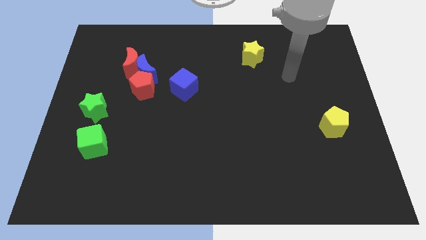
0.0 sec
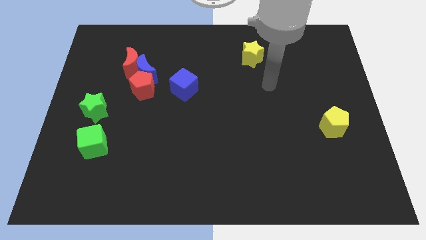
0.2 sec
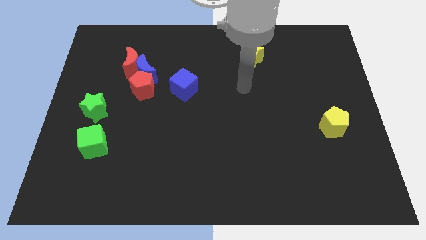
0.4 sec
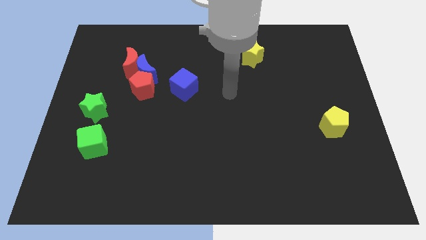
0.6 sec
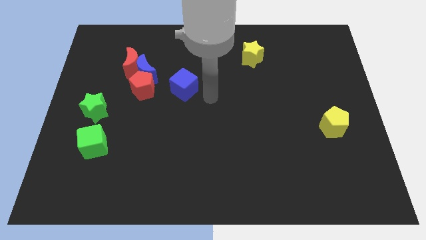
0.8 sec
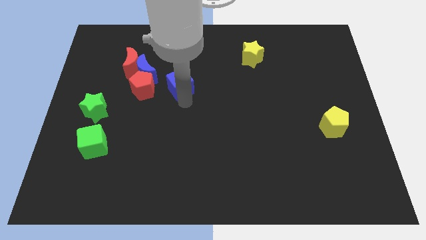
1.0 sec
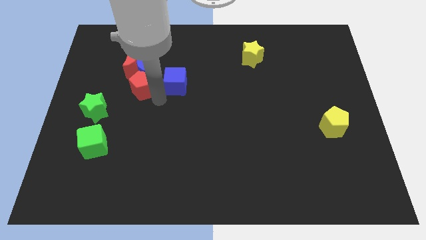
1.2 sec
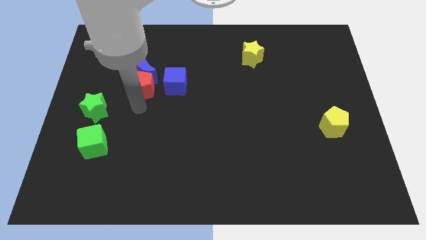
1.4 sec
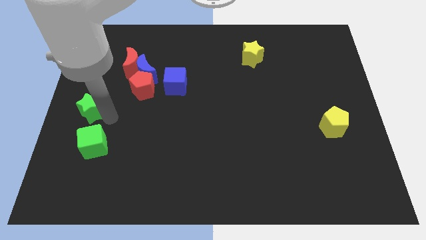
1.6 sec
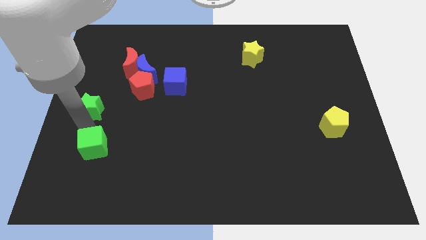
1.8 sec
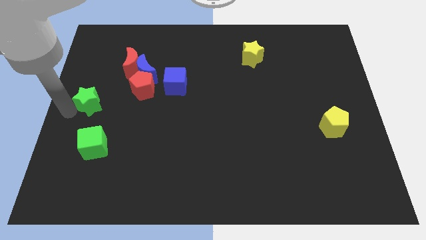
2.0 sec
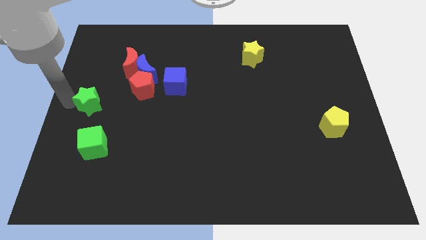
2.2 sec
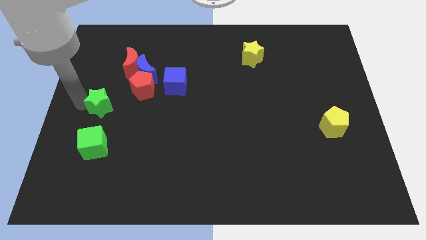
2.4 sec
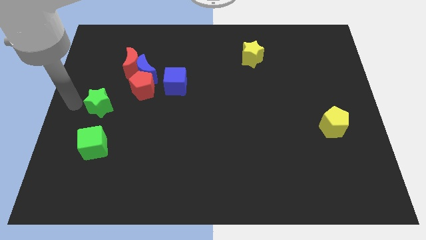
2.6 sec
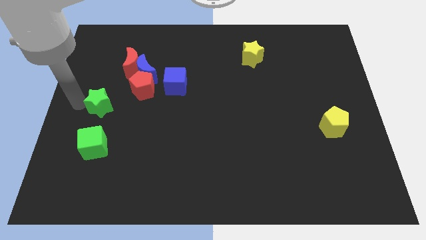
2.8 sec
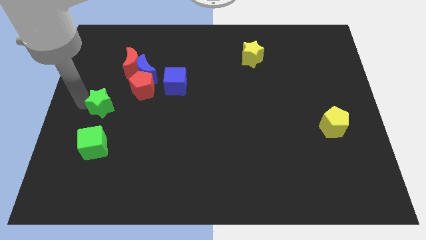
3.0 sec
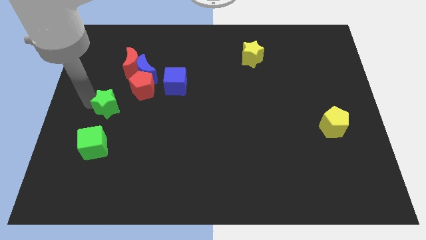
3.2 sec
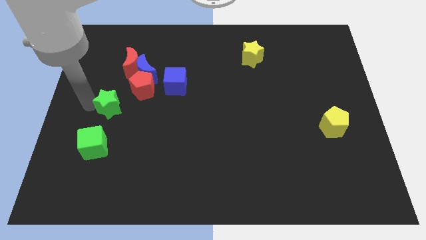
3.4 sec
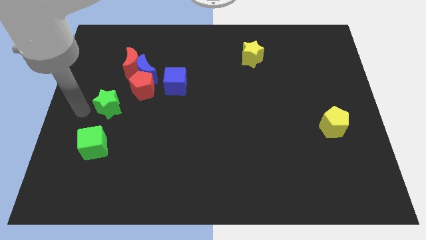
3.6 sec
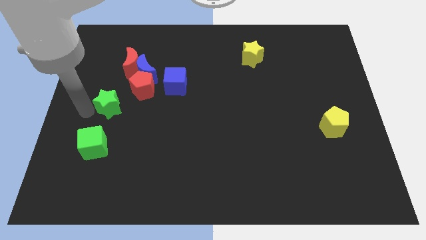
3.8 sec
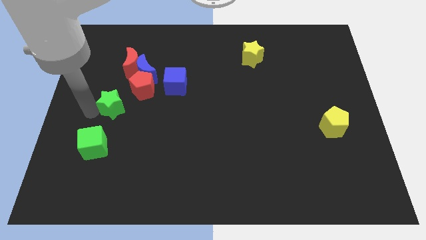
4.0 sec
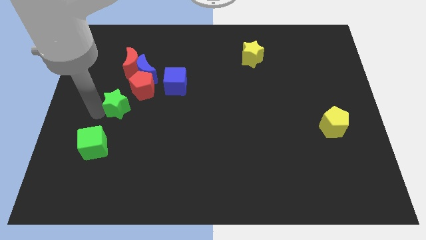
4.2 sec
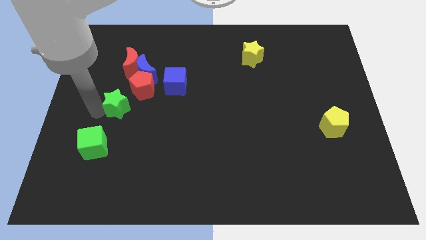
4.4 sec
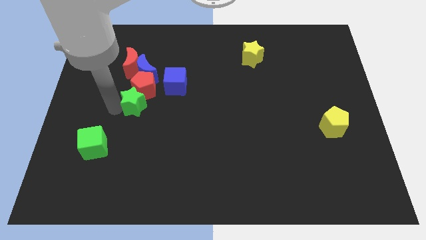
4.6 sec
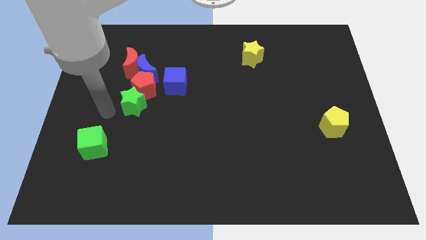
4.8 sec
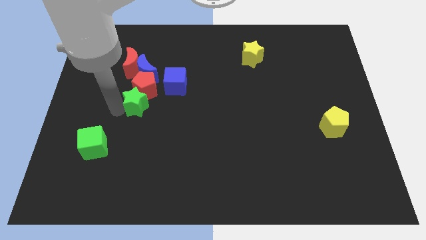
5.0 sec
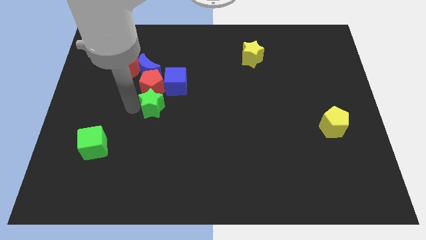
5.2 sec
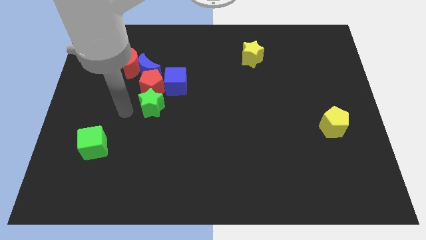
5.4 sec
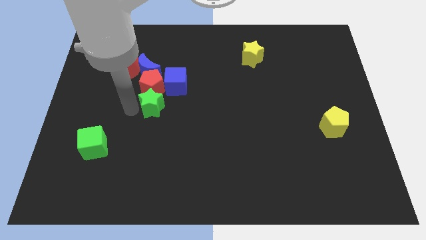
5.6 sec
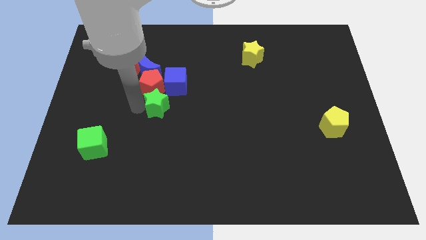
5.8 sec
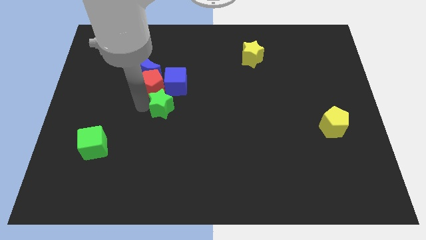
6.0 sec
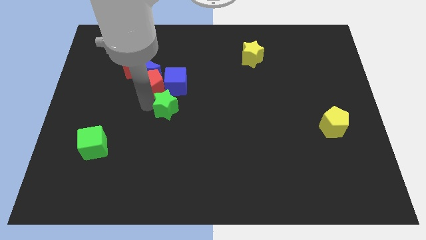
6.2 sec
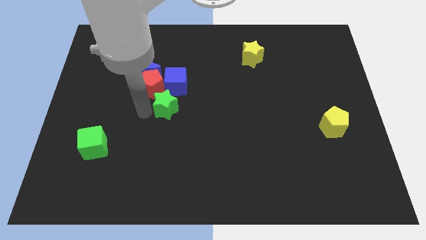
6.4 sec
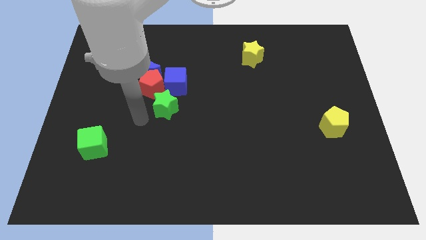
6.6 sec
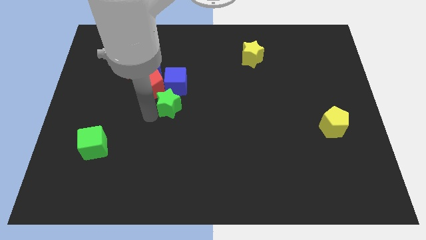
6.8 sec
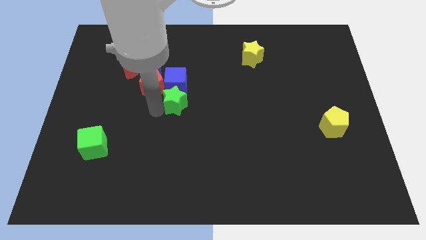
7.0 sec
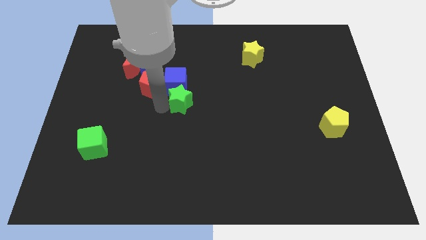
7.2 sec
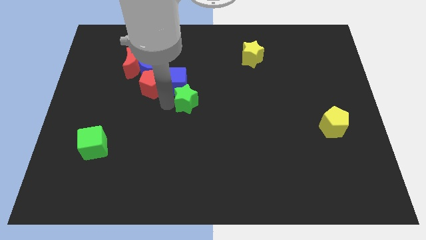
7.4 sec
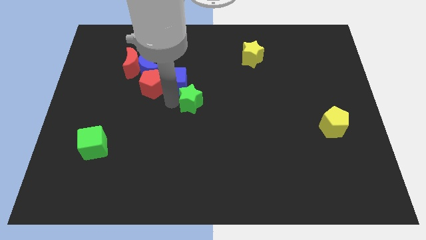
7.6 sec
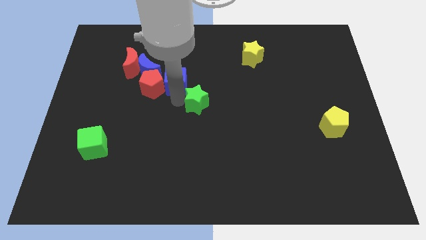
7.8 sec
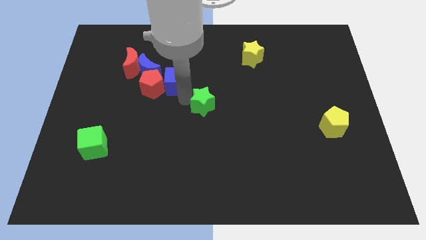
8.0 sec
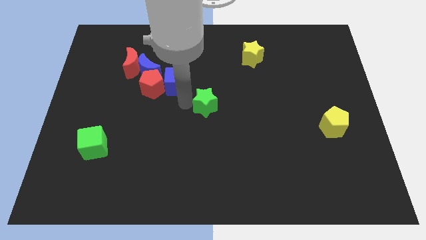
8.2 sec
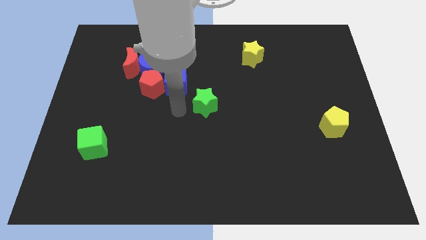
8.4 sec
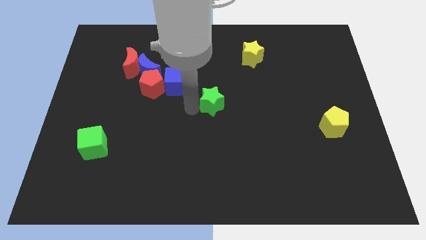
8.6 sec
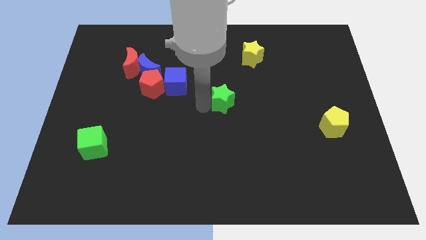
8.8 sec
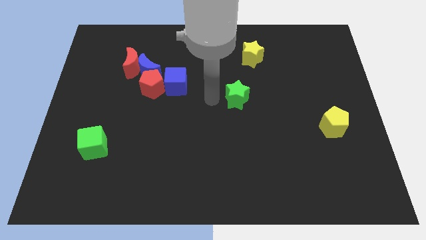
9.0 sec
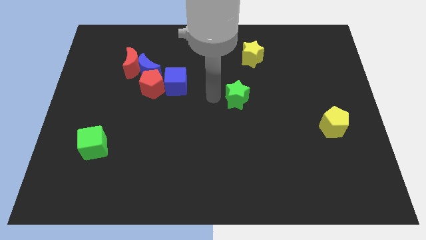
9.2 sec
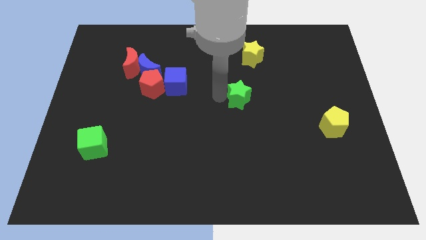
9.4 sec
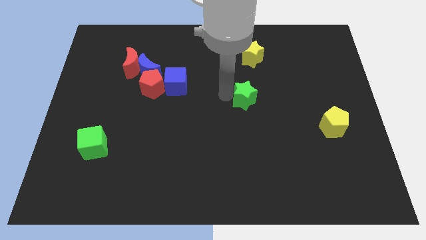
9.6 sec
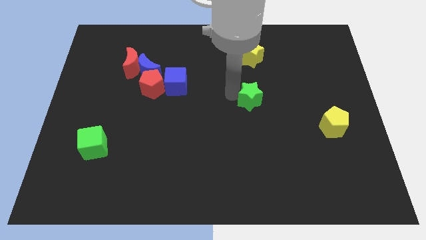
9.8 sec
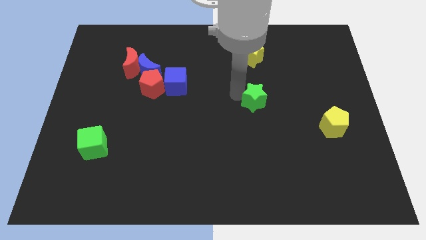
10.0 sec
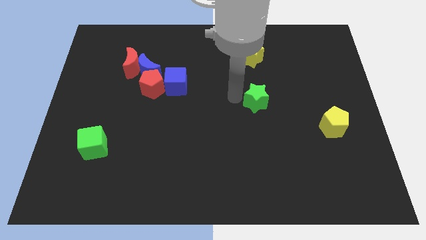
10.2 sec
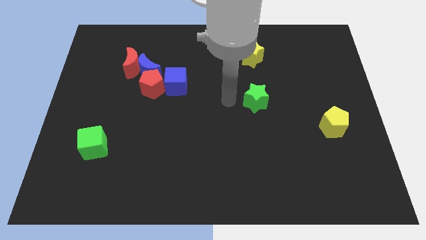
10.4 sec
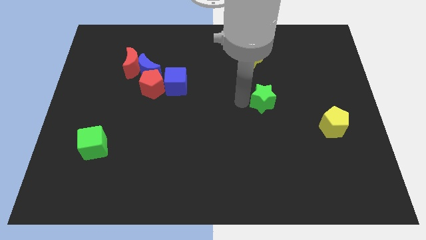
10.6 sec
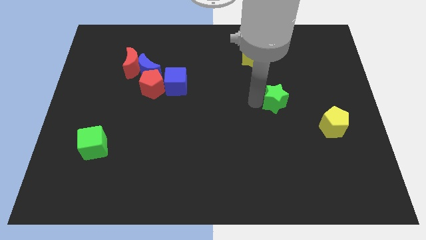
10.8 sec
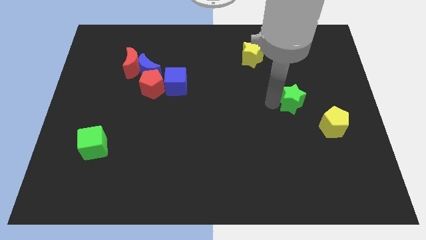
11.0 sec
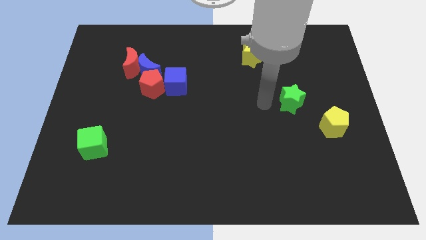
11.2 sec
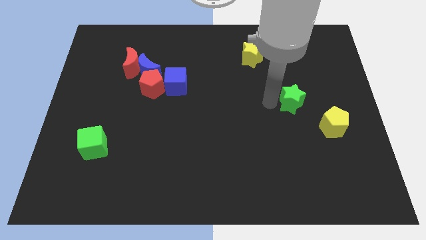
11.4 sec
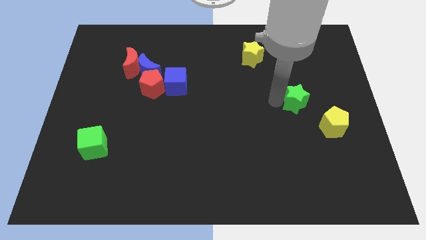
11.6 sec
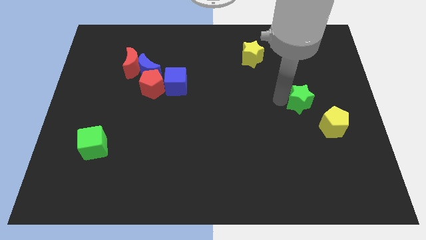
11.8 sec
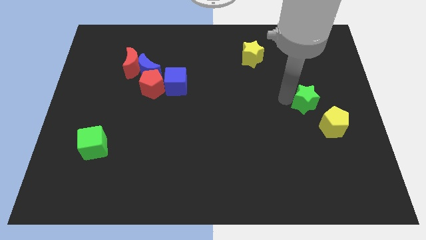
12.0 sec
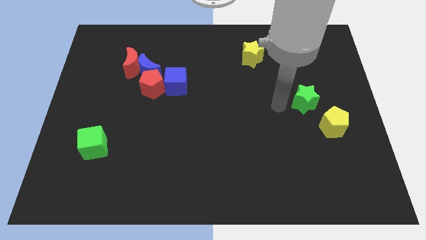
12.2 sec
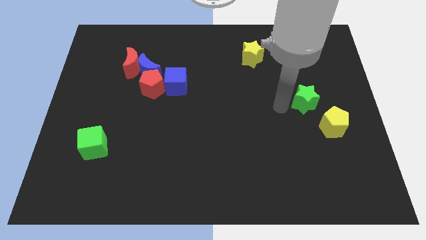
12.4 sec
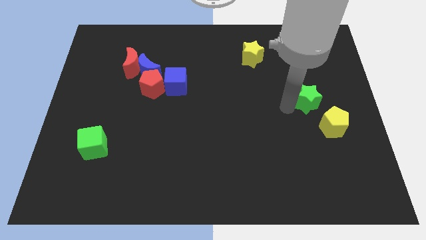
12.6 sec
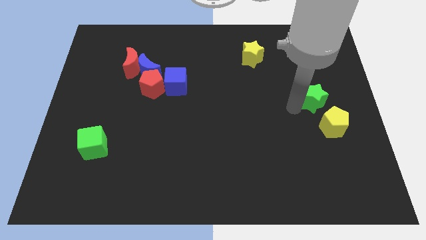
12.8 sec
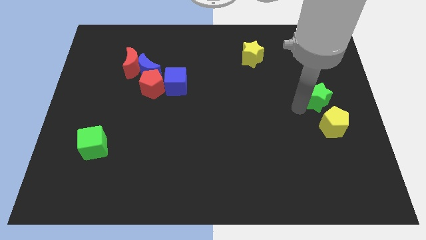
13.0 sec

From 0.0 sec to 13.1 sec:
slide the green star to the center right
